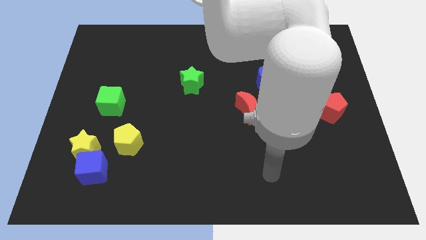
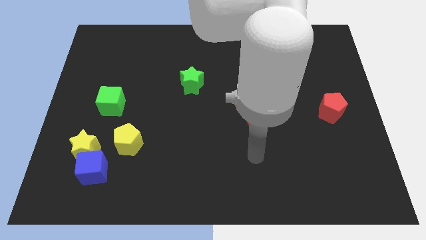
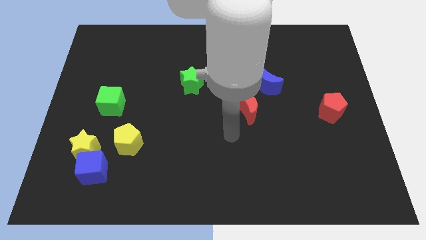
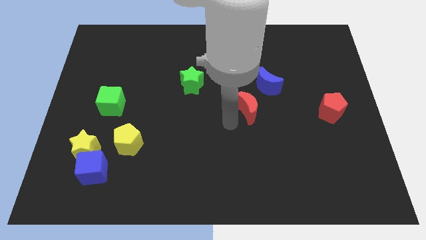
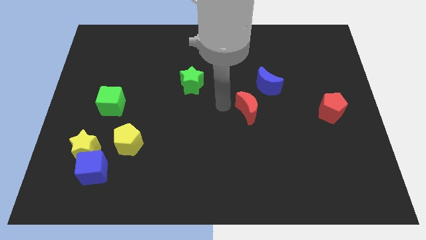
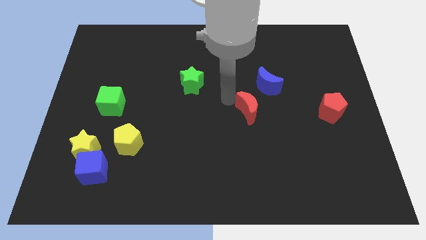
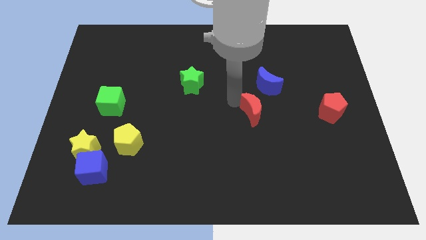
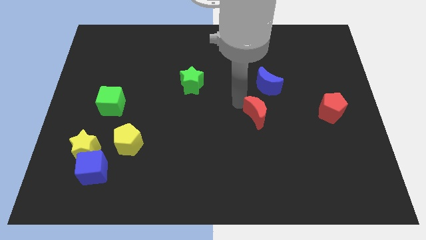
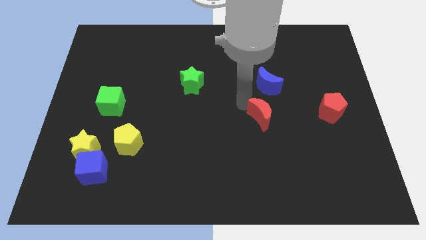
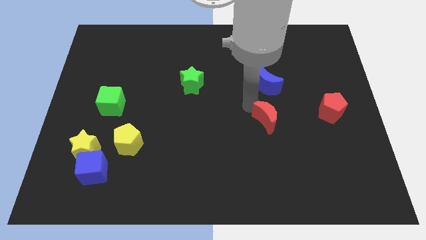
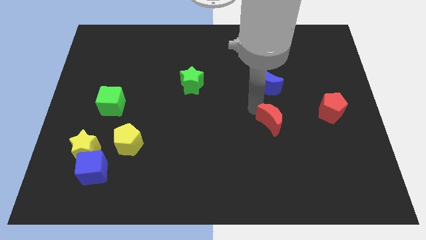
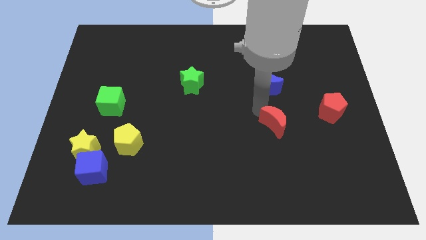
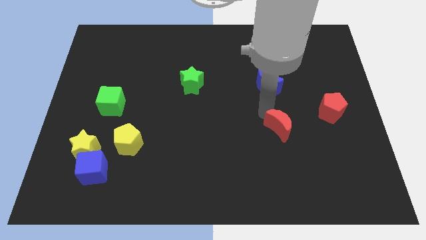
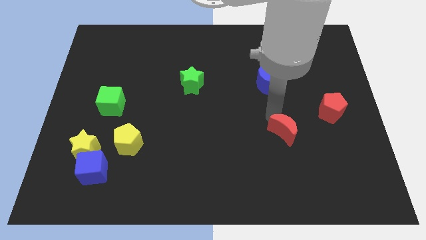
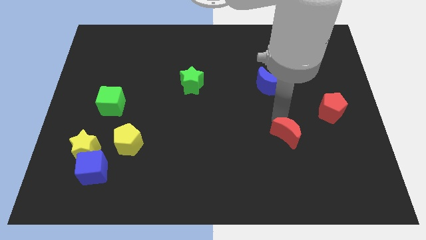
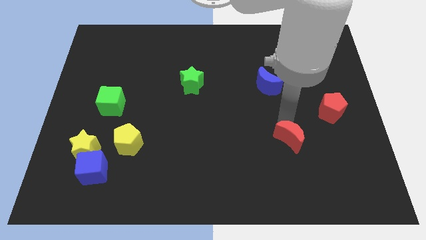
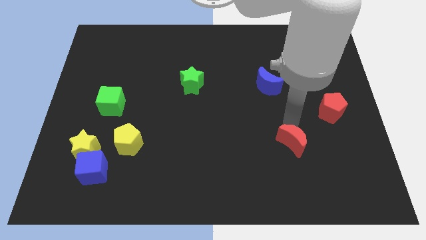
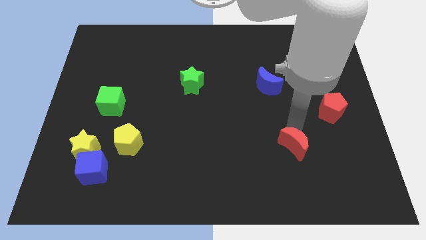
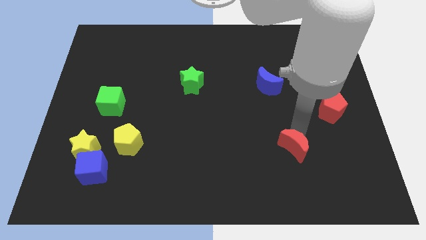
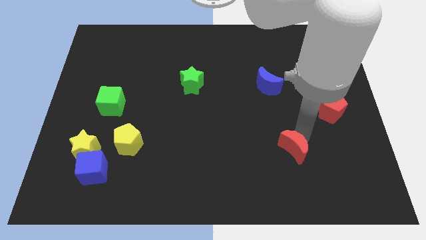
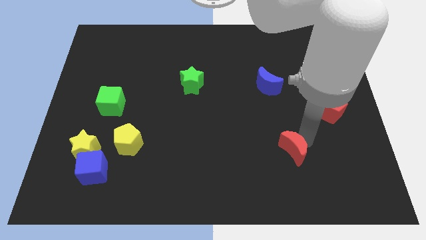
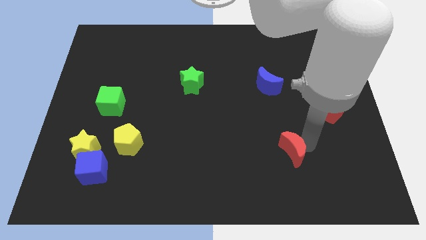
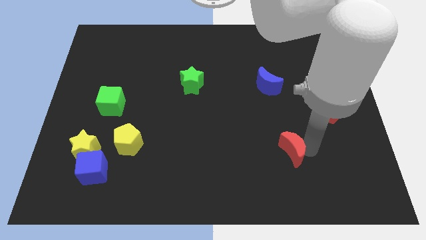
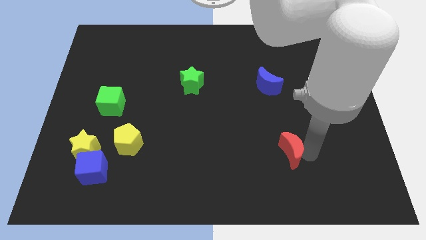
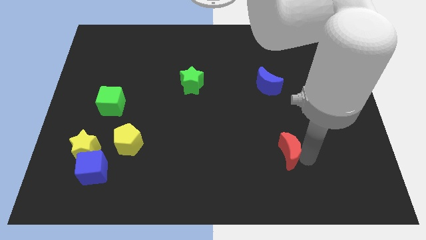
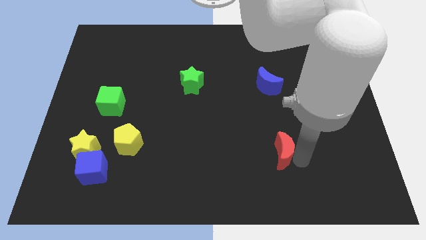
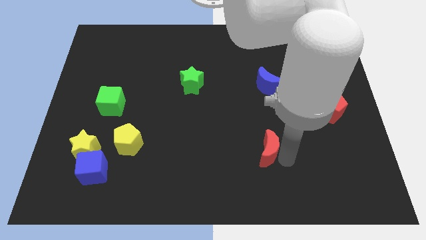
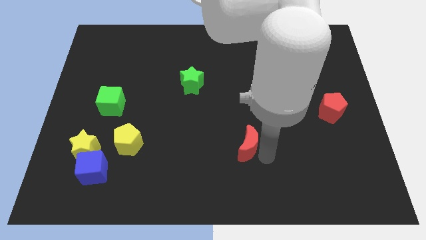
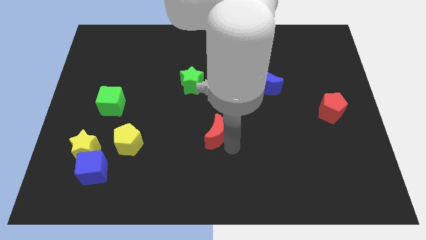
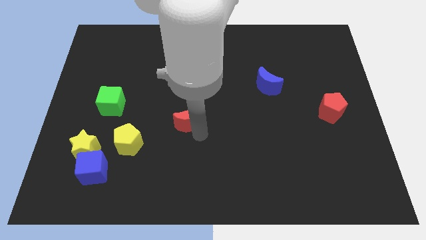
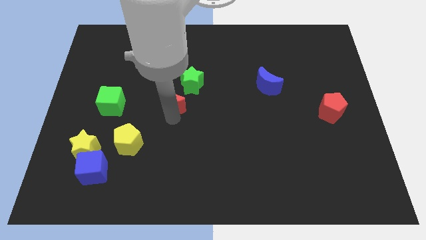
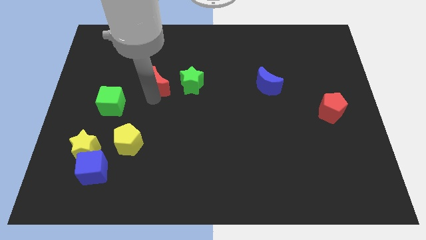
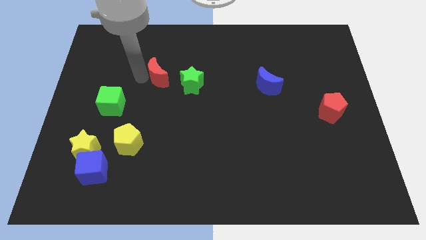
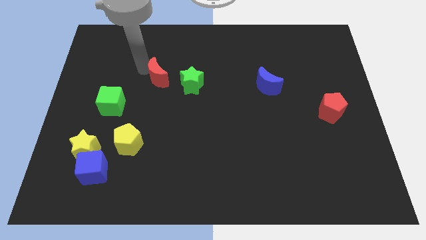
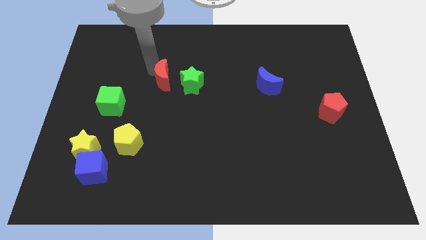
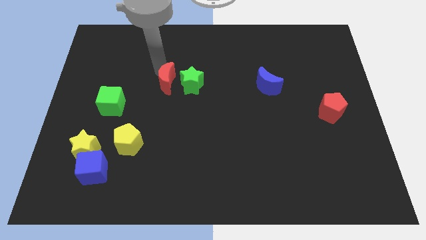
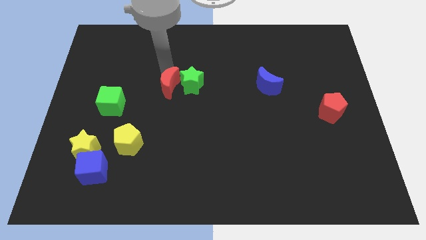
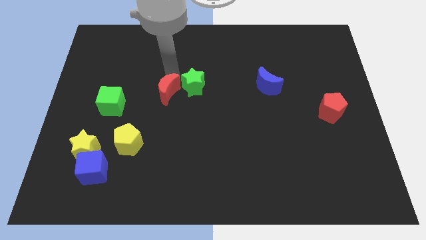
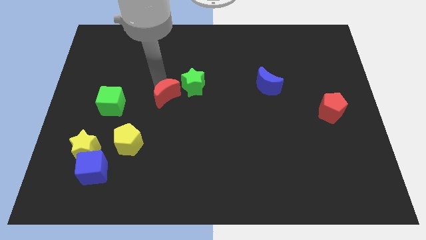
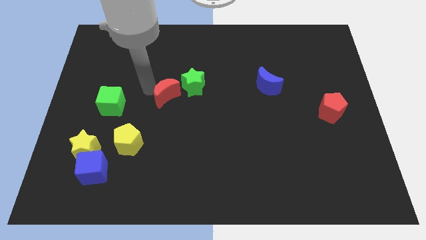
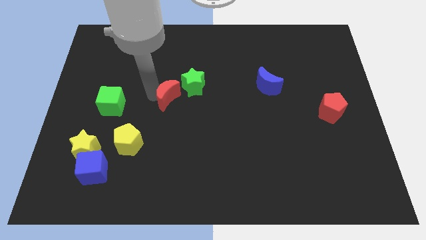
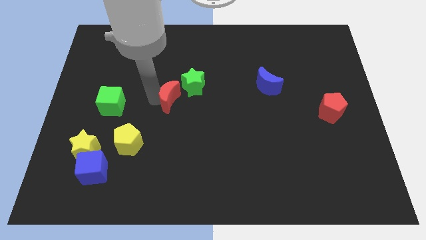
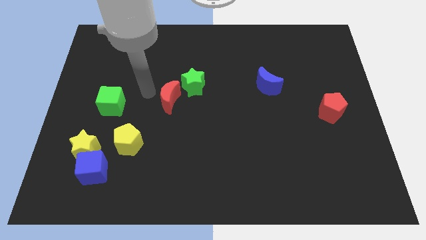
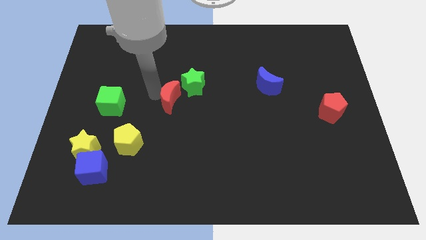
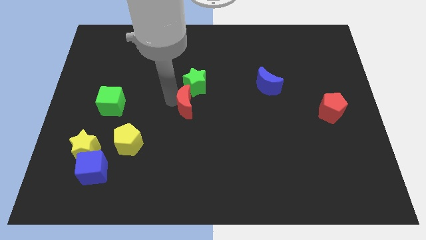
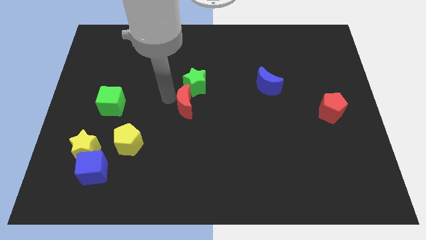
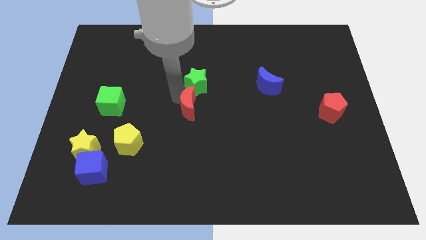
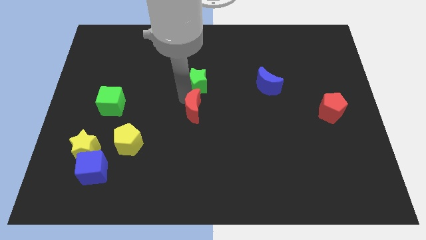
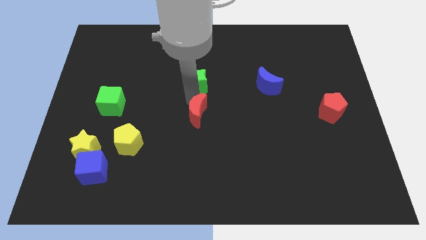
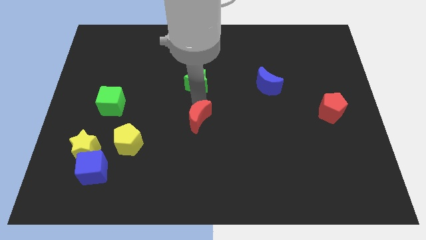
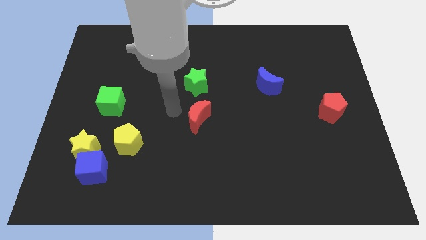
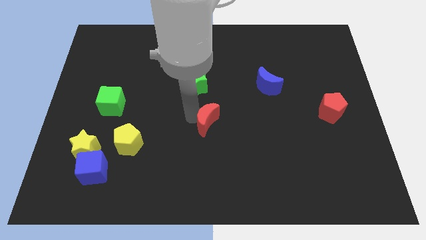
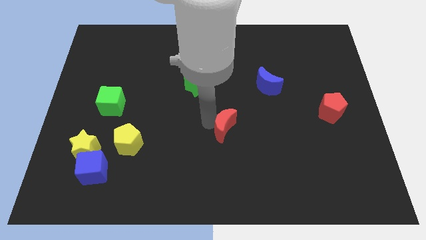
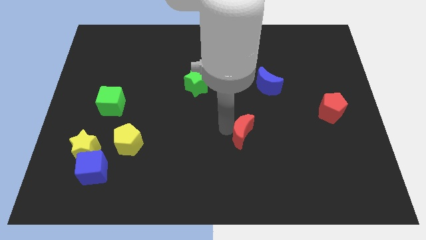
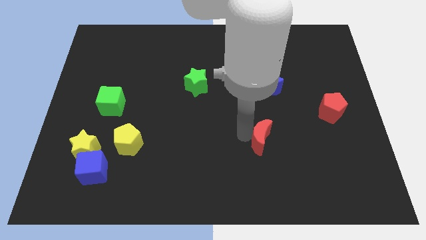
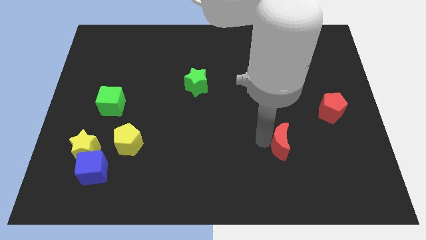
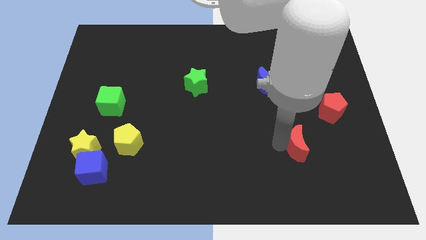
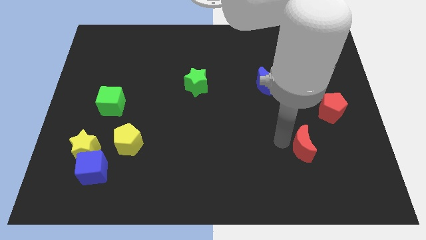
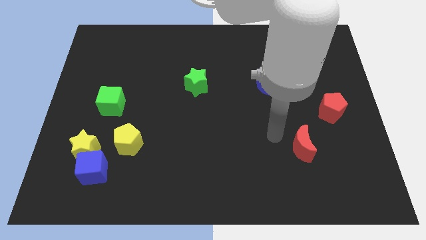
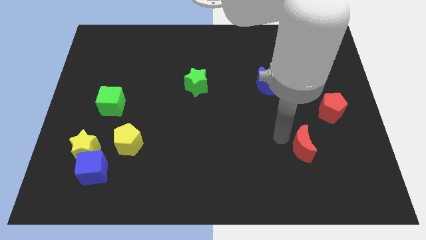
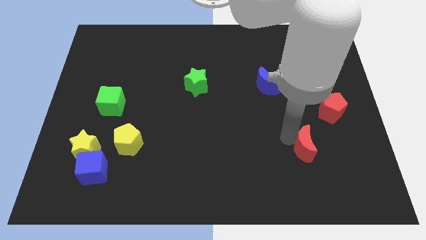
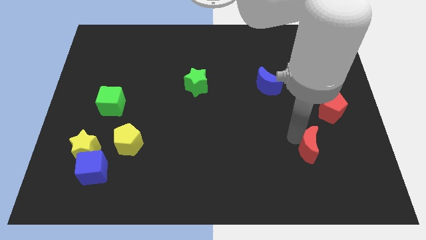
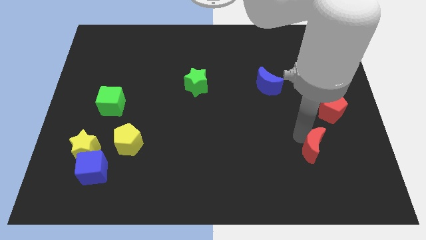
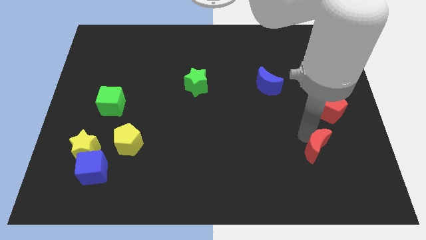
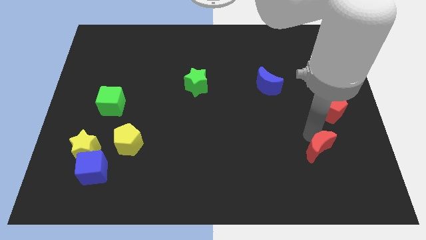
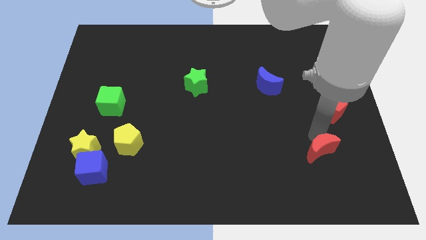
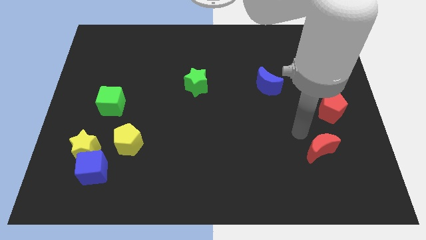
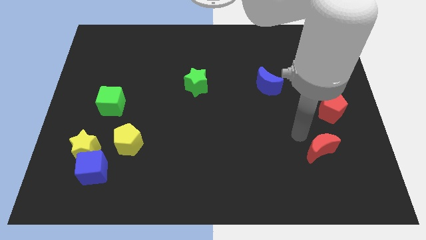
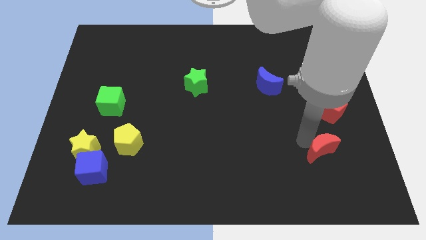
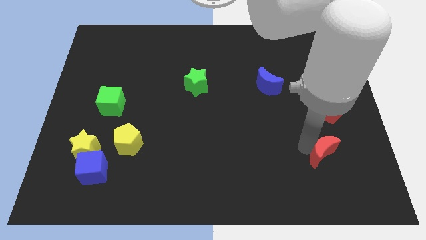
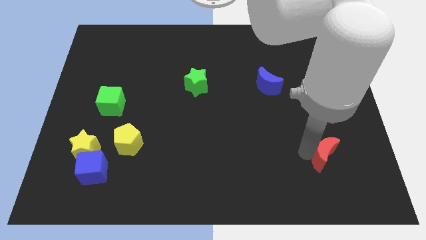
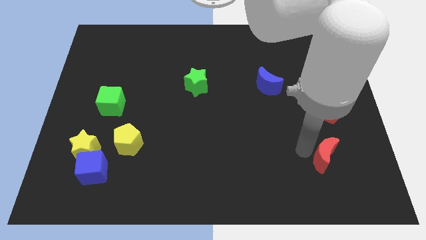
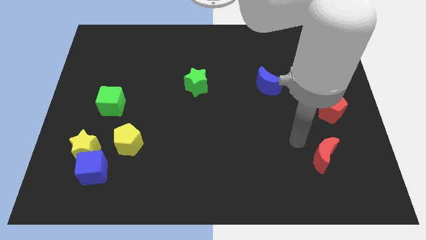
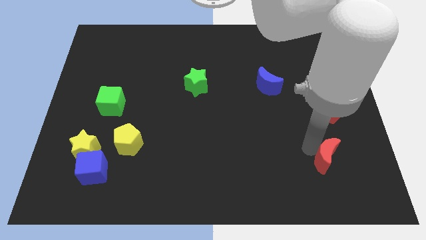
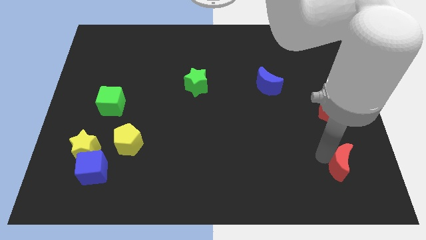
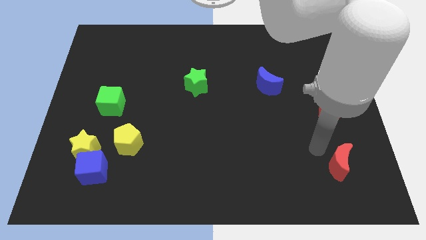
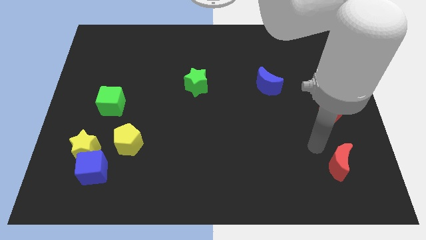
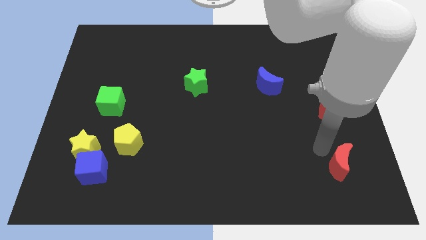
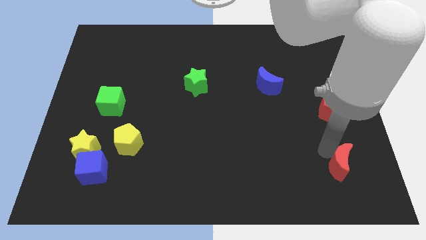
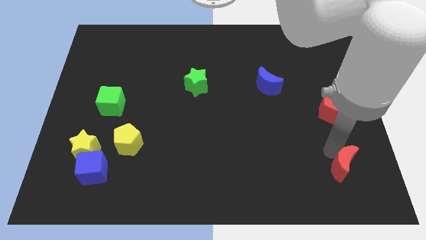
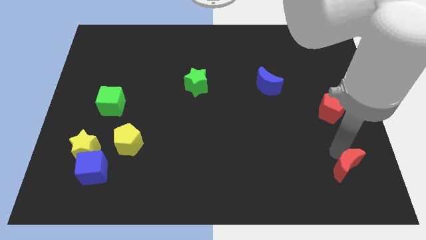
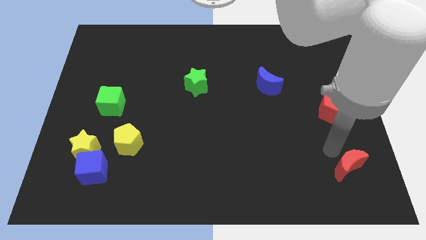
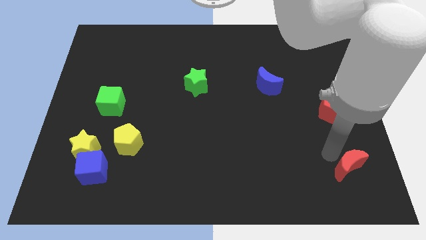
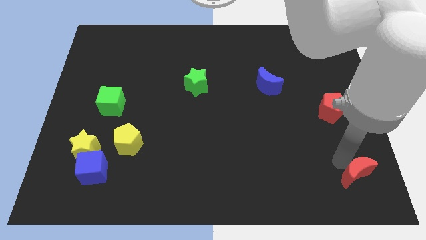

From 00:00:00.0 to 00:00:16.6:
move the red moon to the bottom right
